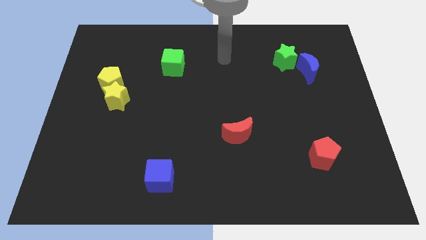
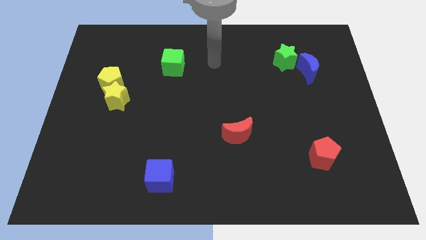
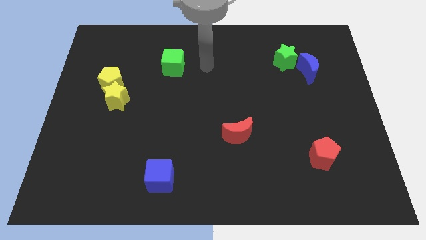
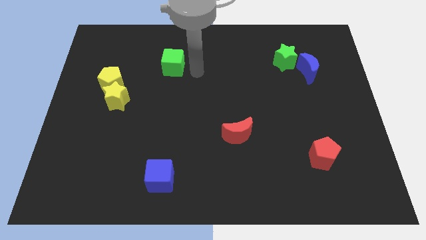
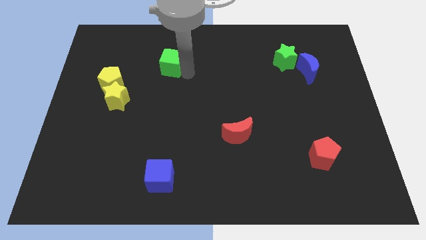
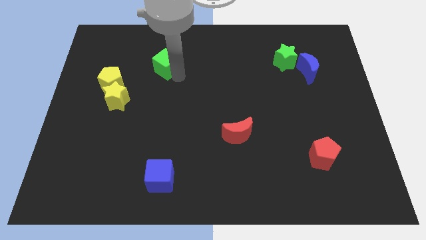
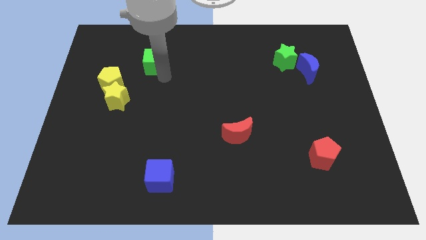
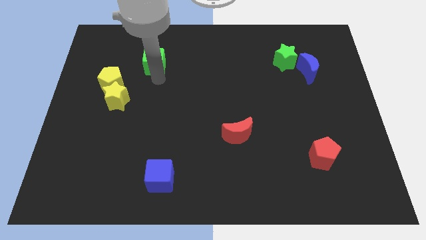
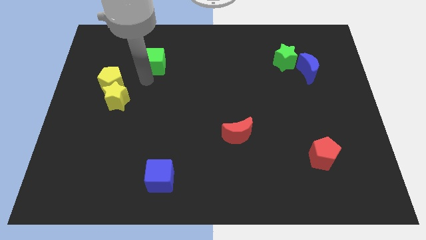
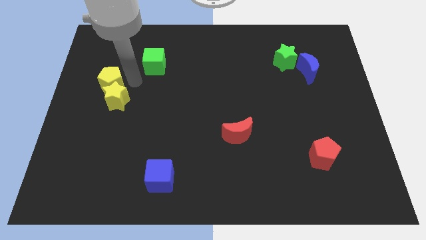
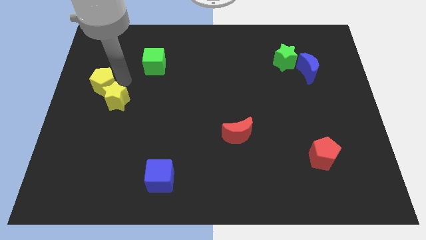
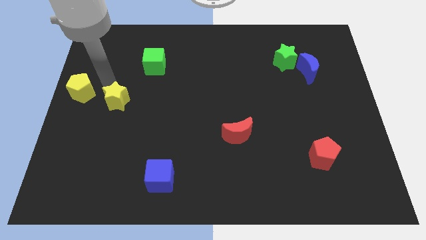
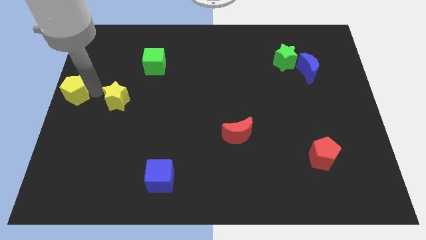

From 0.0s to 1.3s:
pull the yellow star apart from the yellow pentagon

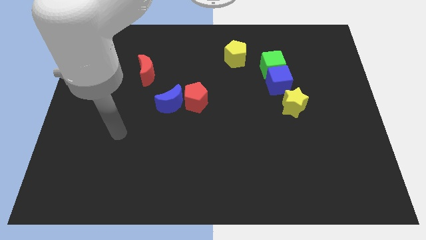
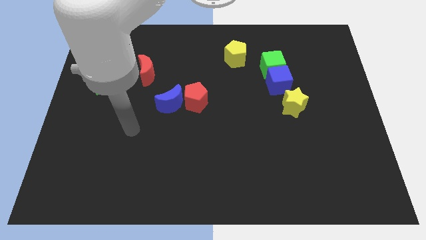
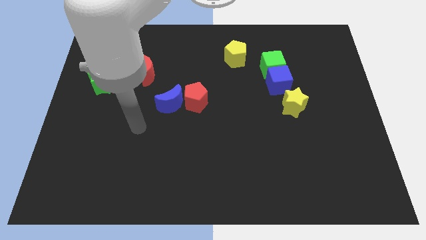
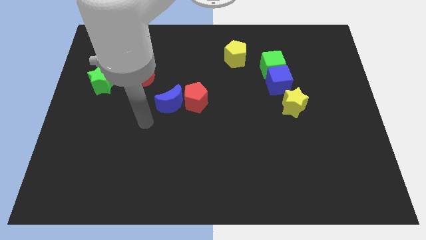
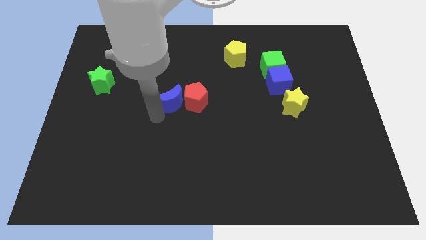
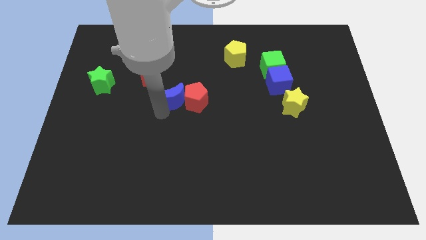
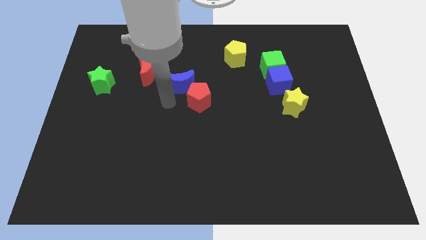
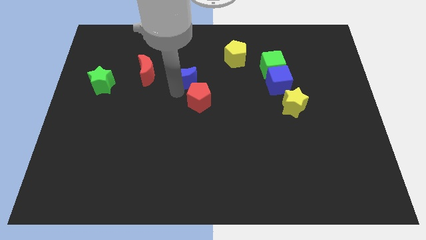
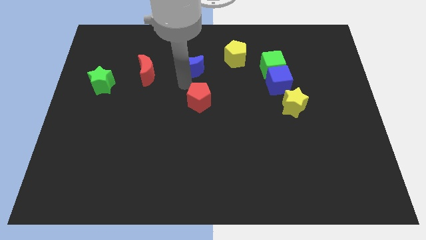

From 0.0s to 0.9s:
move the red pentagon away from the blue moon

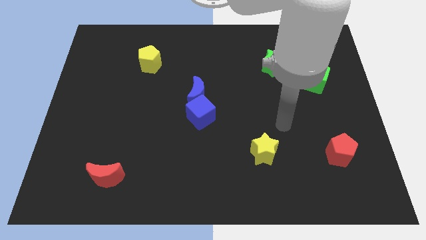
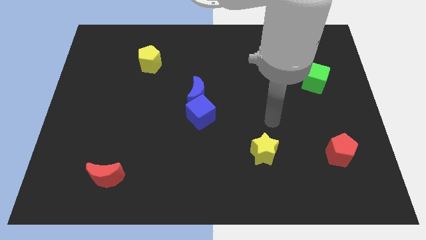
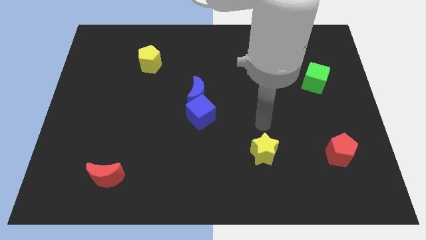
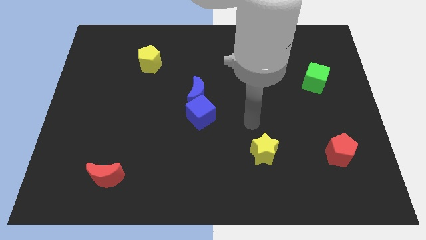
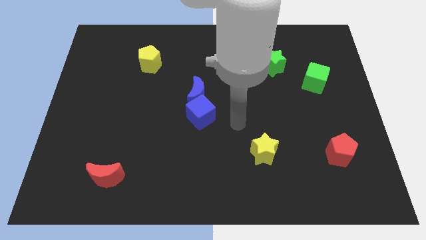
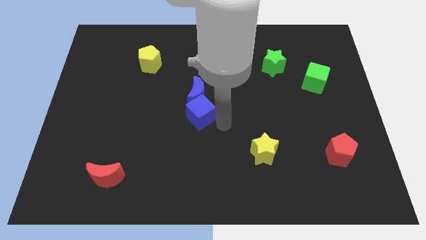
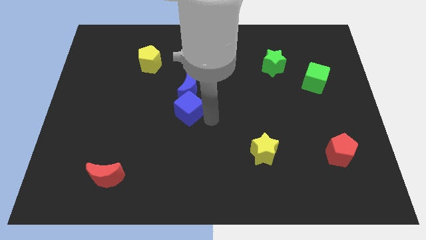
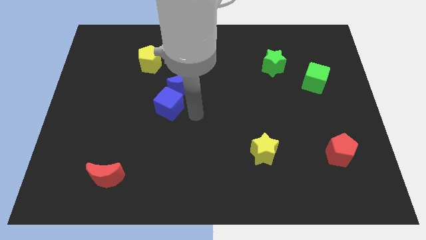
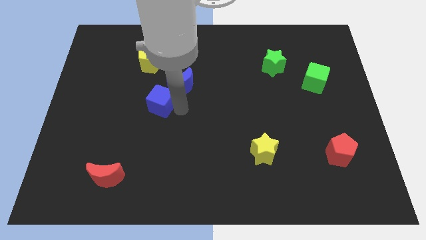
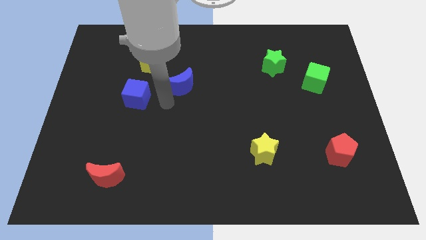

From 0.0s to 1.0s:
separate the blue moon from the blue cube

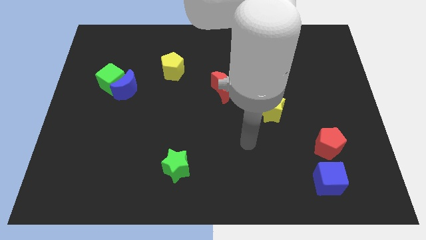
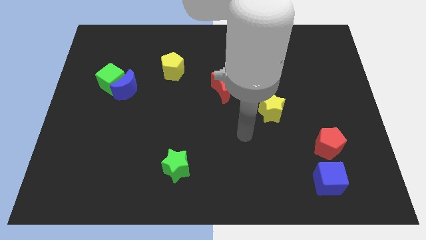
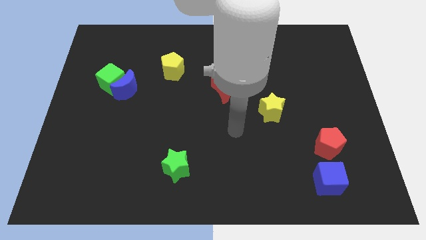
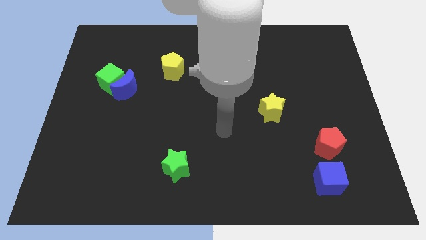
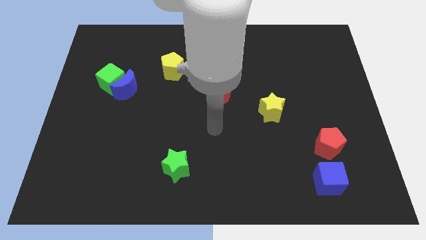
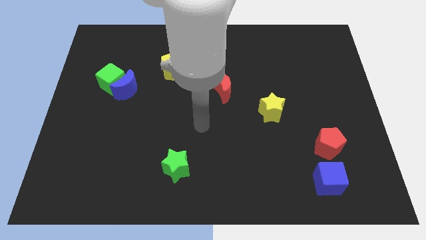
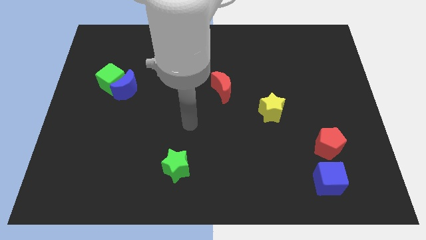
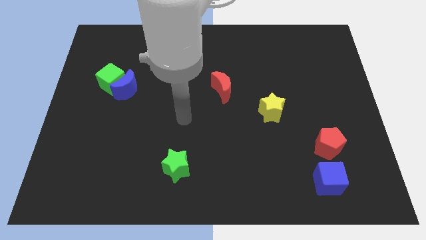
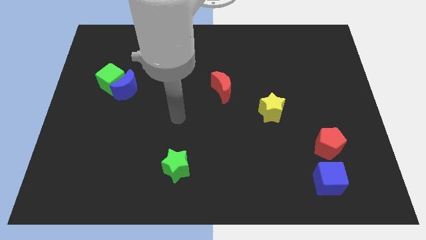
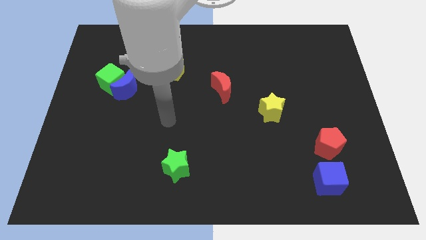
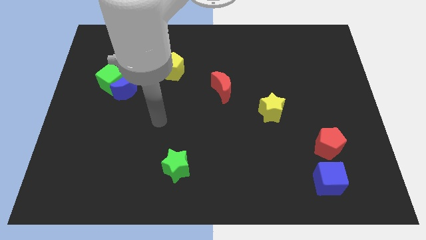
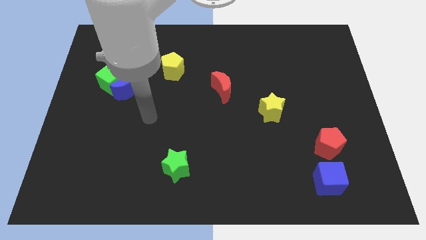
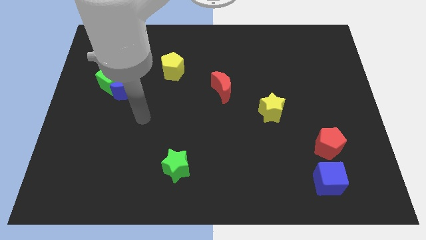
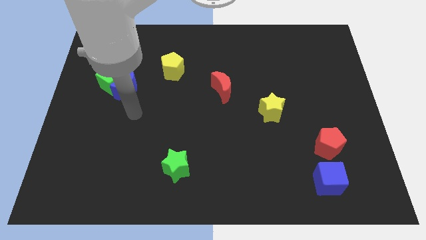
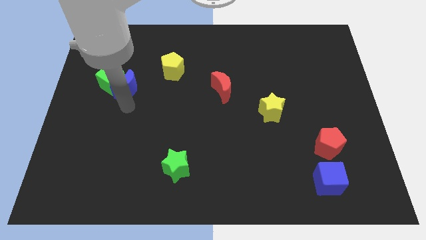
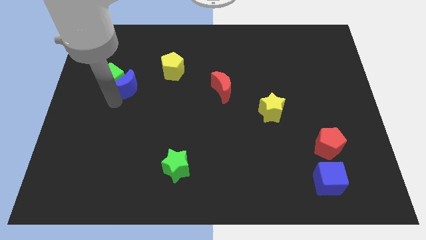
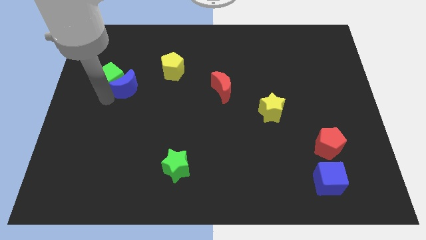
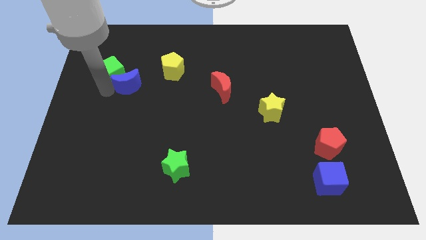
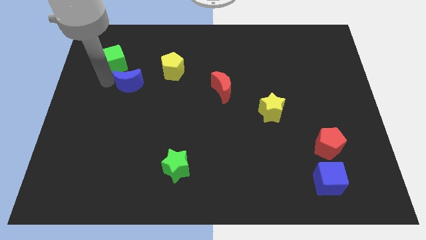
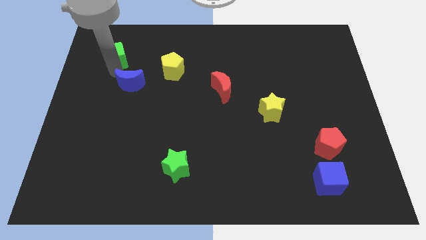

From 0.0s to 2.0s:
move the blue moon away from the green cube

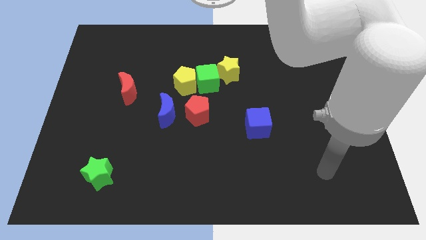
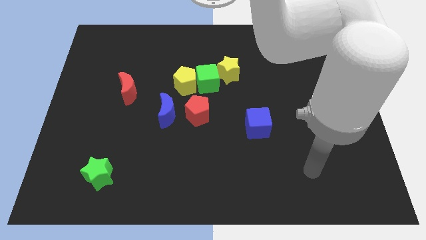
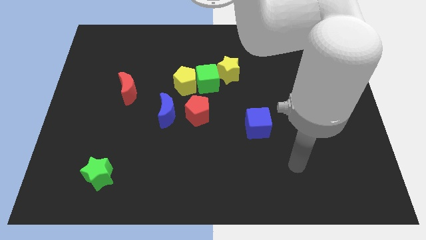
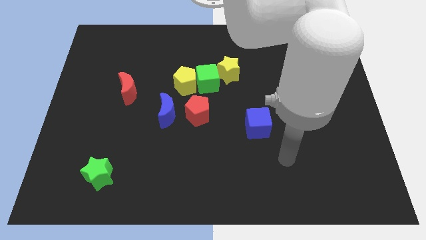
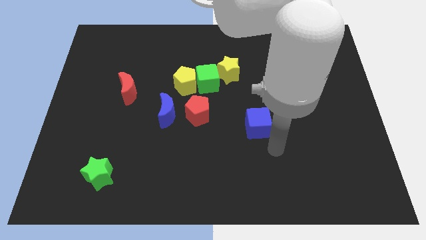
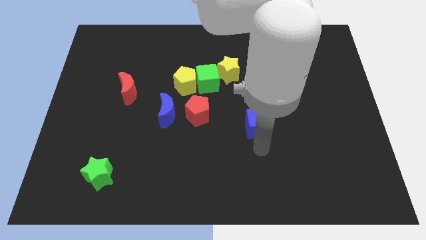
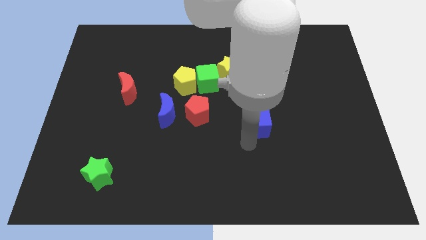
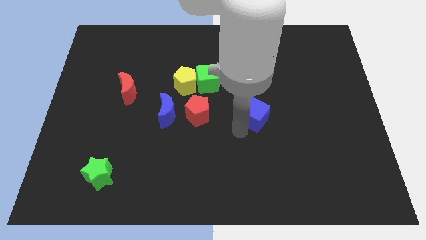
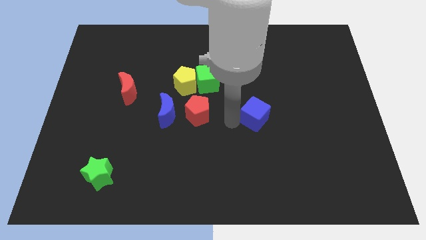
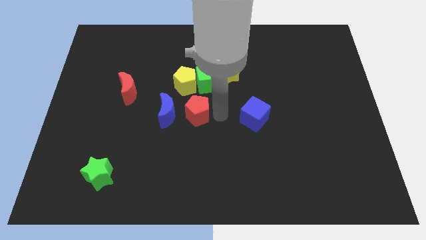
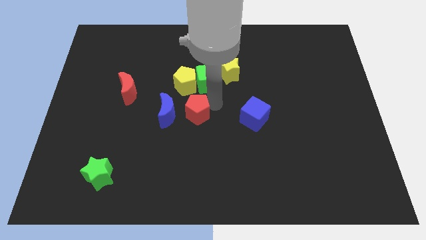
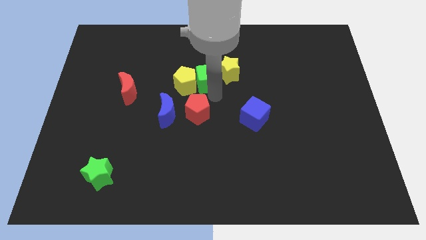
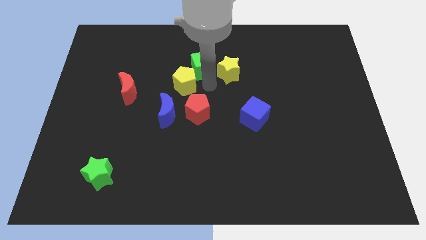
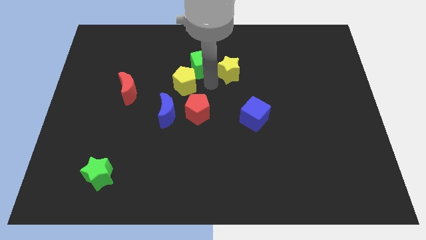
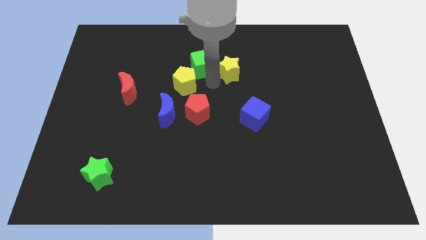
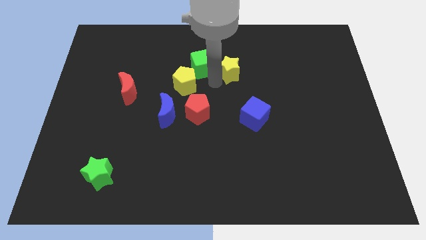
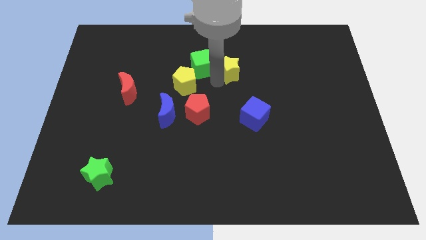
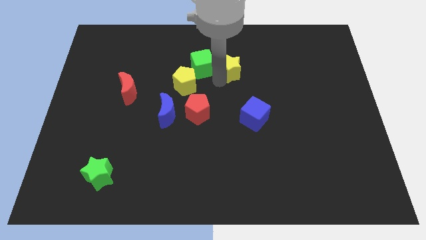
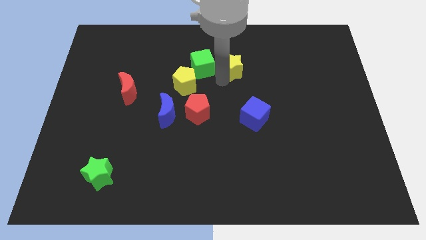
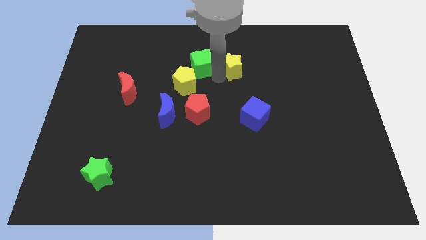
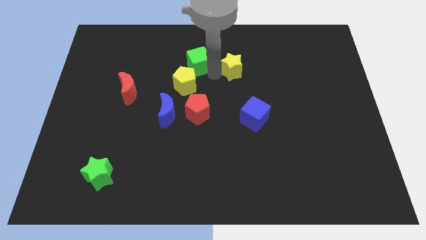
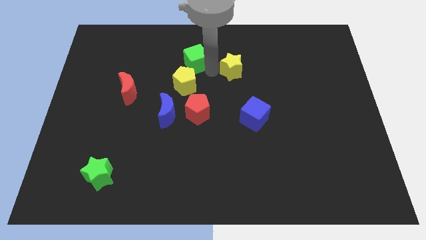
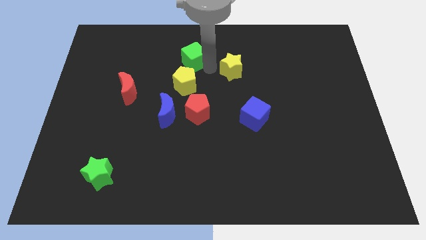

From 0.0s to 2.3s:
move the yellow star away from the green cube

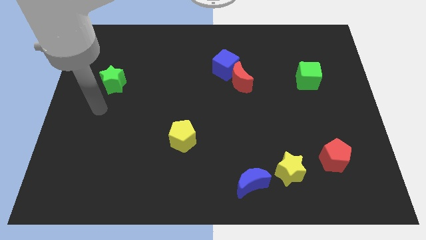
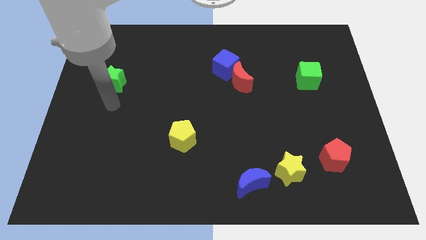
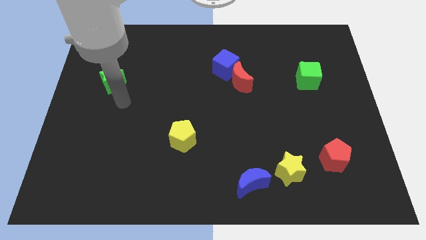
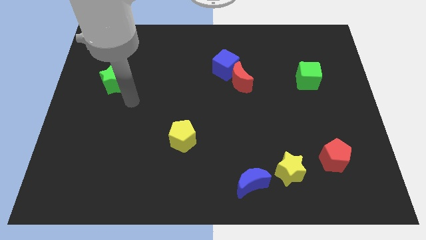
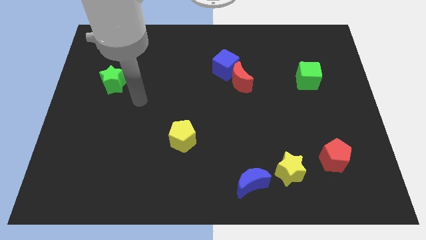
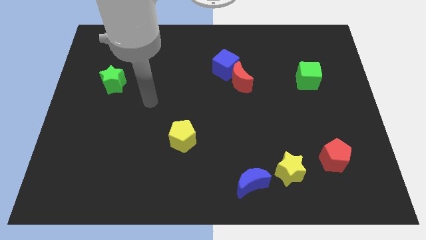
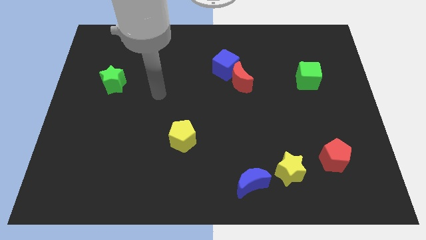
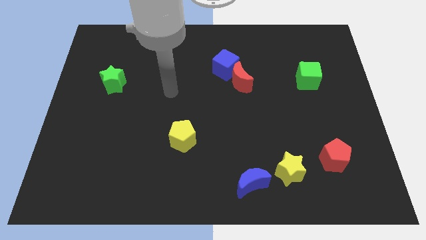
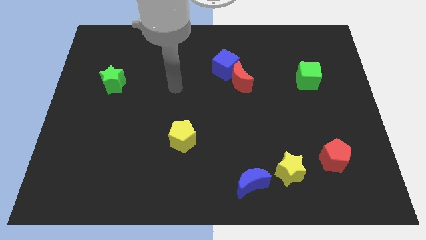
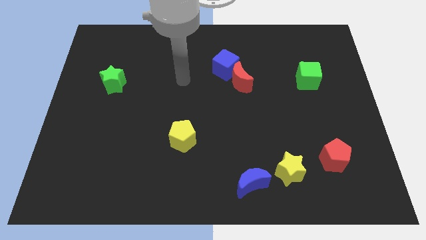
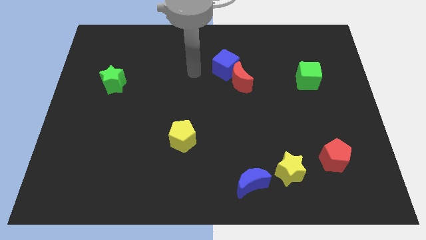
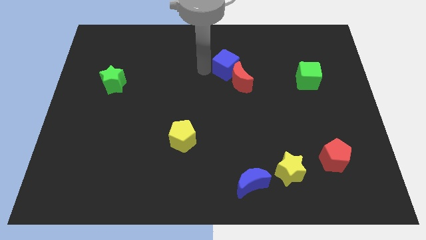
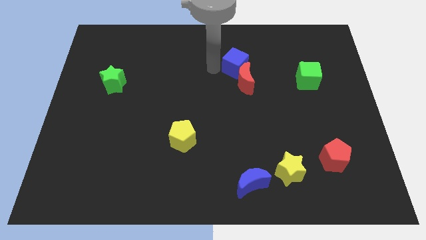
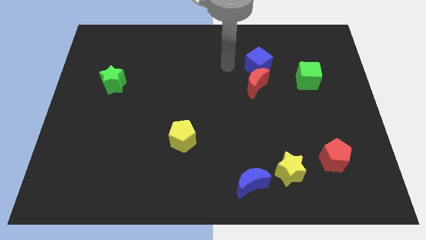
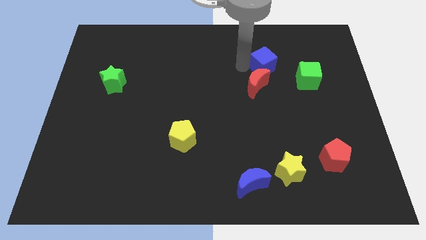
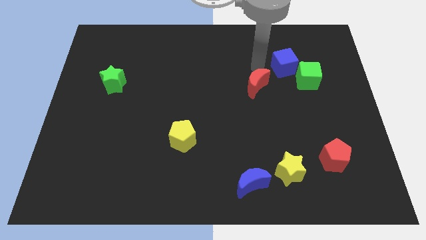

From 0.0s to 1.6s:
separate the red moon from the blue cube

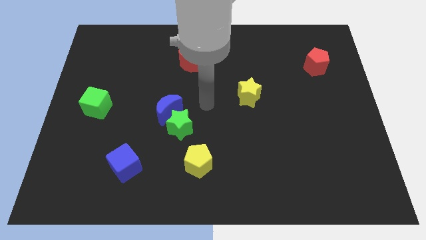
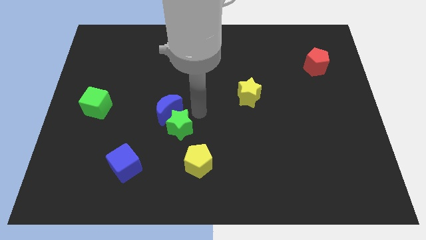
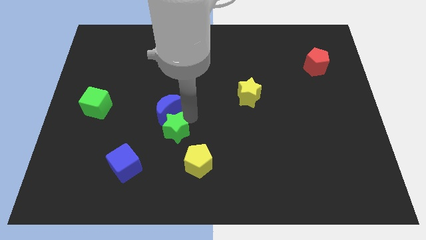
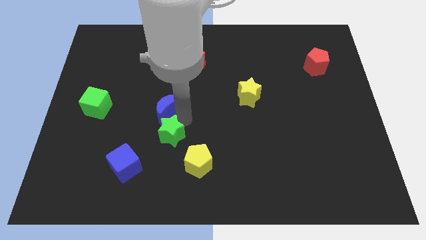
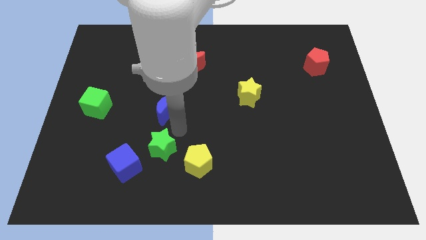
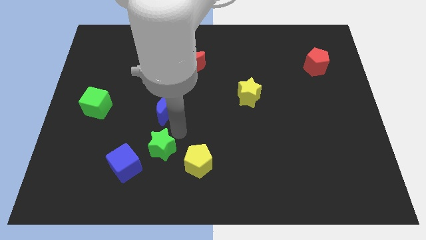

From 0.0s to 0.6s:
move the blue moon away from the green star
